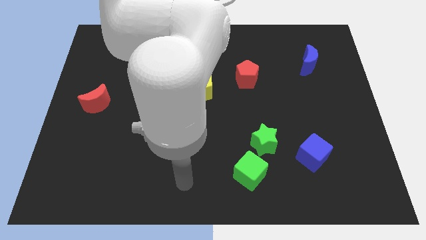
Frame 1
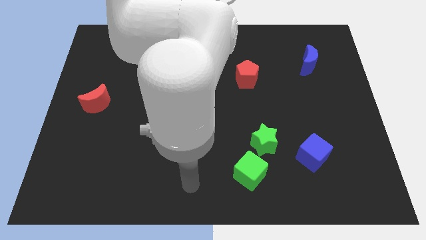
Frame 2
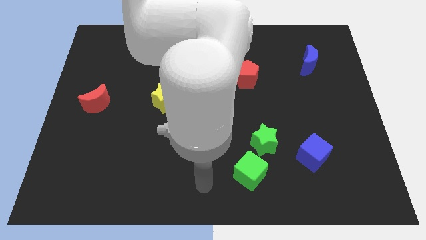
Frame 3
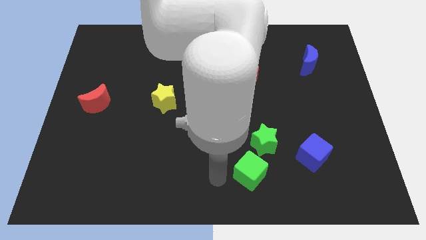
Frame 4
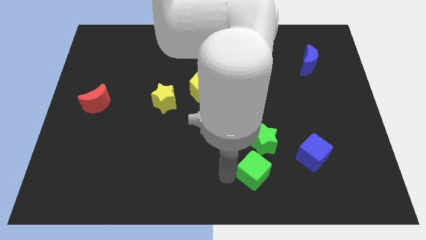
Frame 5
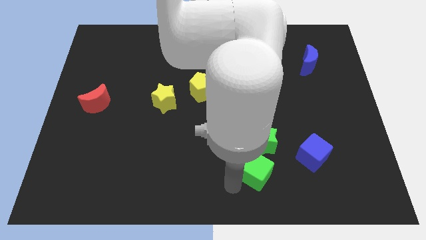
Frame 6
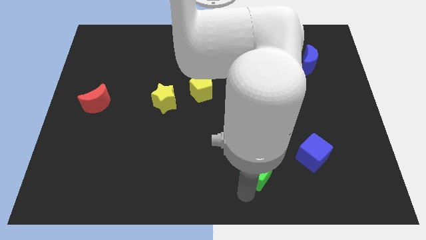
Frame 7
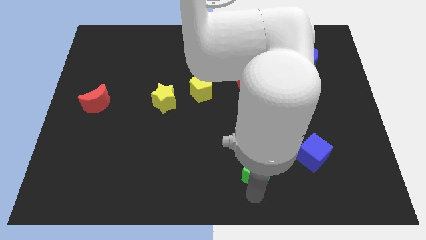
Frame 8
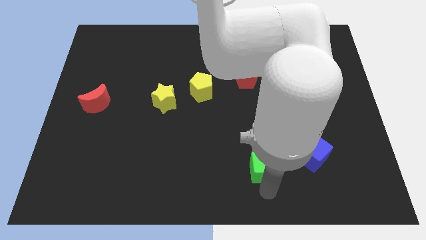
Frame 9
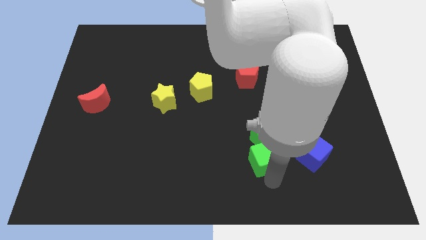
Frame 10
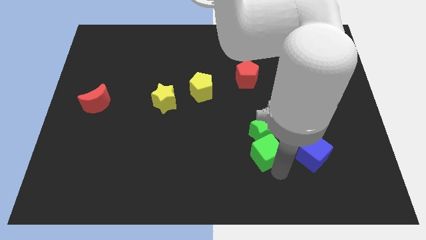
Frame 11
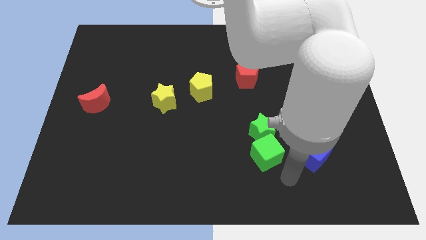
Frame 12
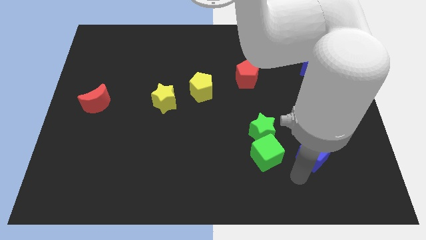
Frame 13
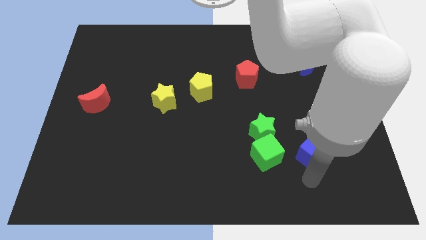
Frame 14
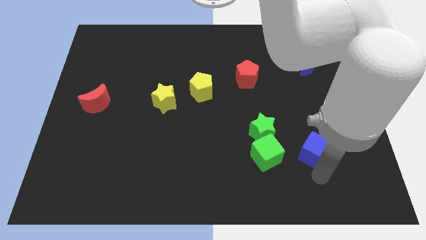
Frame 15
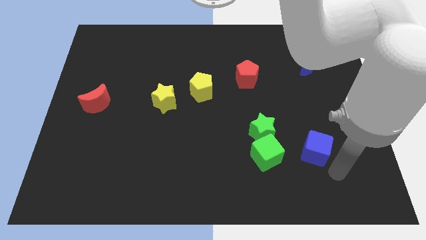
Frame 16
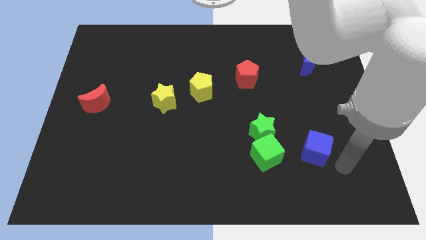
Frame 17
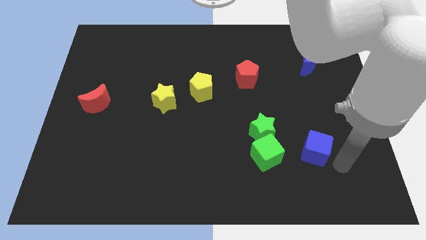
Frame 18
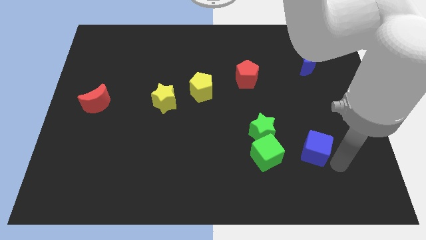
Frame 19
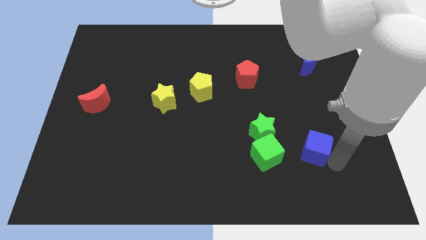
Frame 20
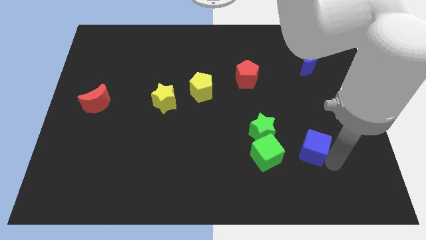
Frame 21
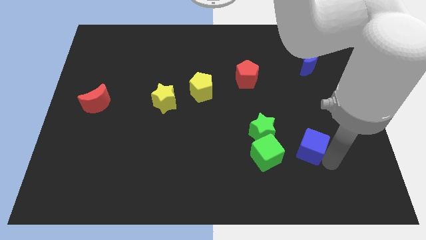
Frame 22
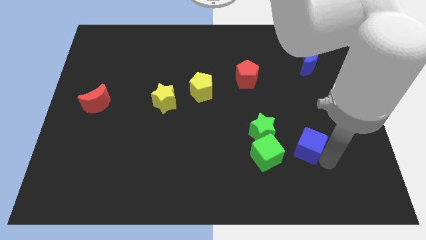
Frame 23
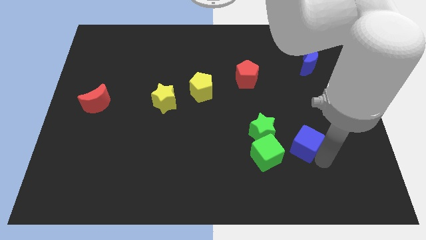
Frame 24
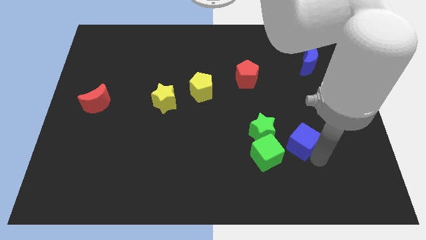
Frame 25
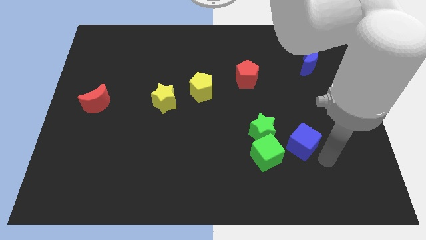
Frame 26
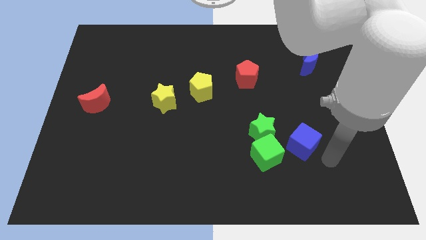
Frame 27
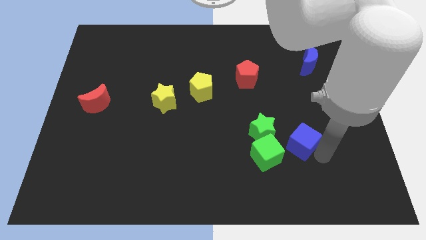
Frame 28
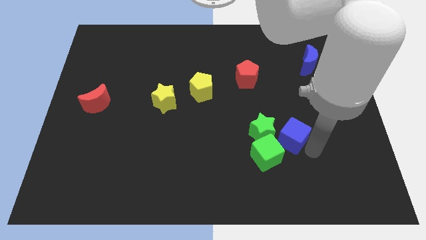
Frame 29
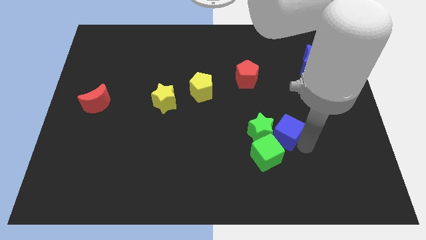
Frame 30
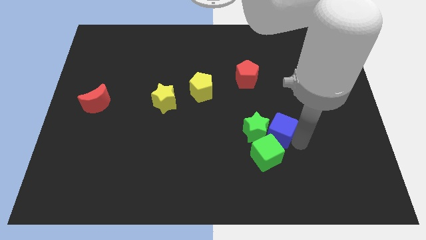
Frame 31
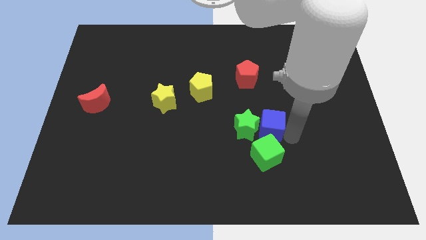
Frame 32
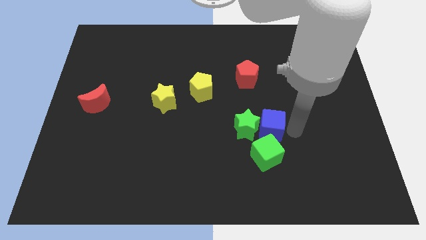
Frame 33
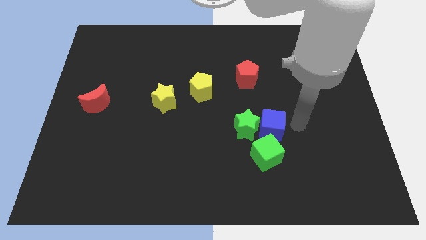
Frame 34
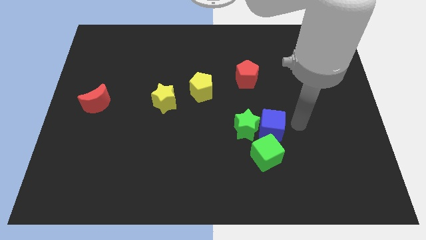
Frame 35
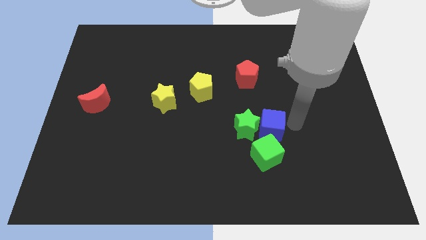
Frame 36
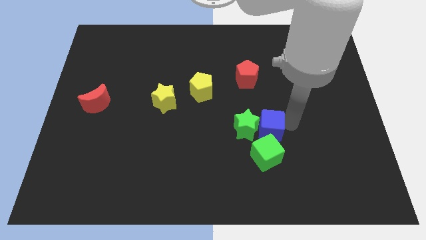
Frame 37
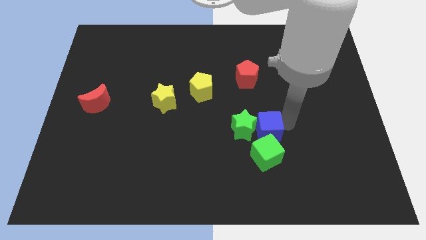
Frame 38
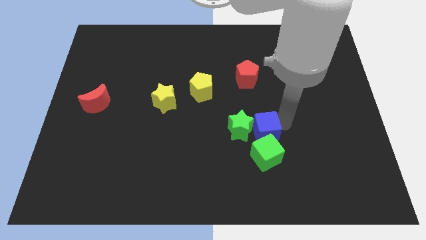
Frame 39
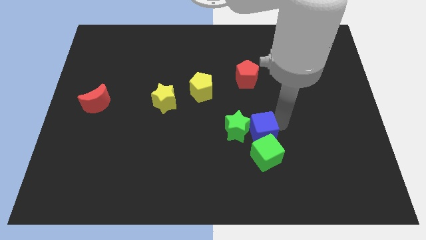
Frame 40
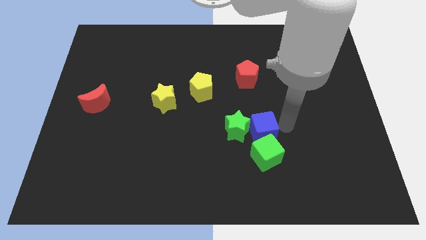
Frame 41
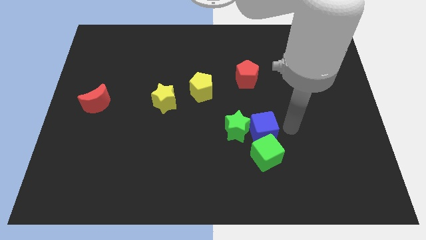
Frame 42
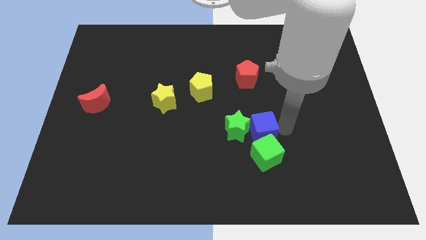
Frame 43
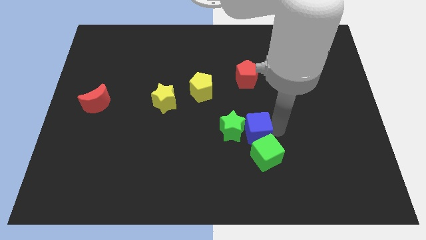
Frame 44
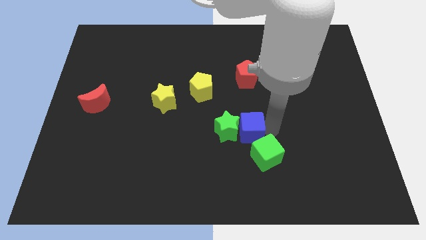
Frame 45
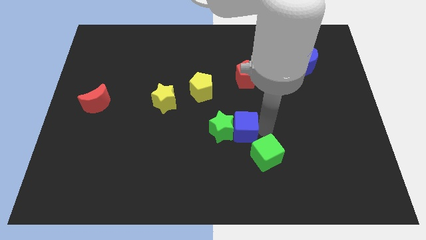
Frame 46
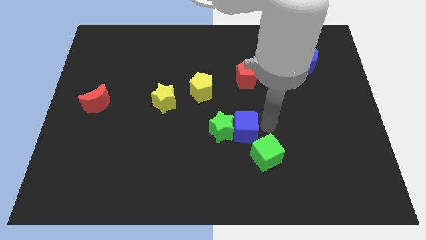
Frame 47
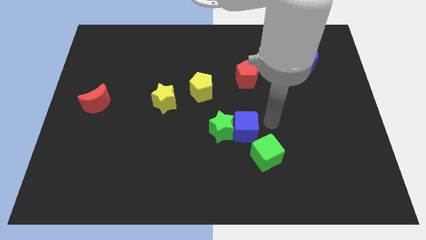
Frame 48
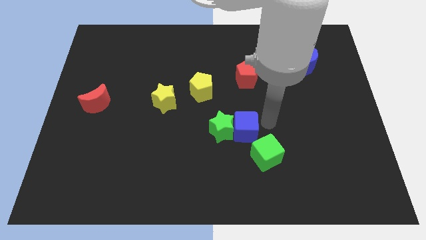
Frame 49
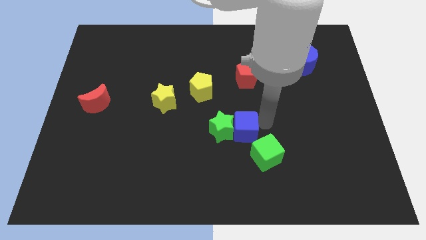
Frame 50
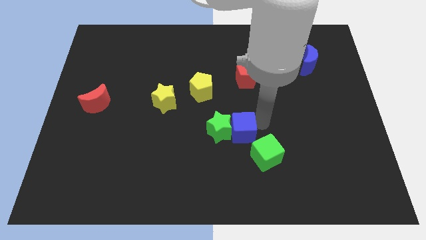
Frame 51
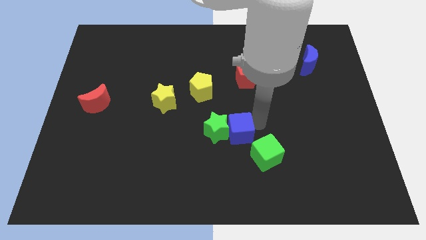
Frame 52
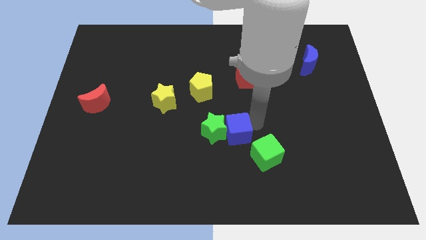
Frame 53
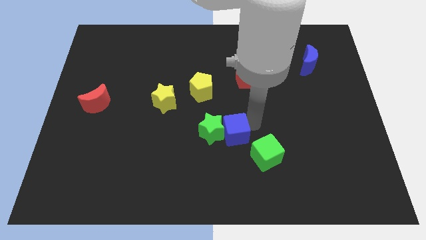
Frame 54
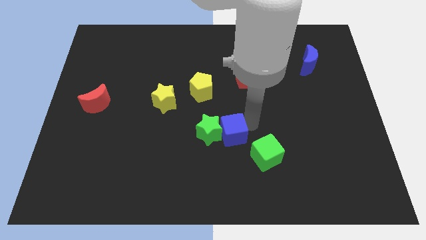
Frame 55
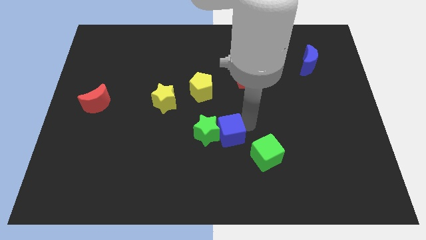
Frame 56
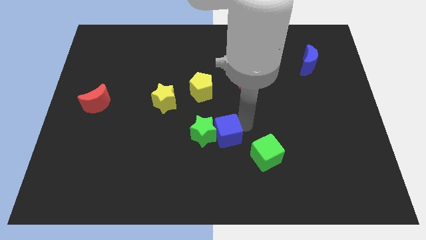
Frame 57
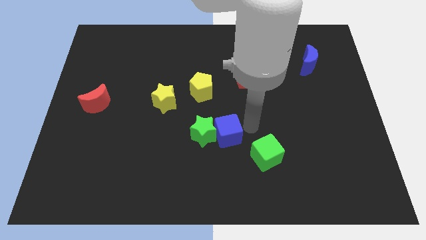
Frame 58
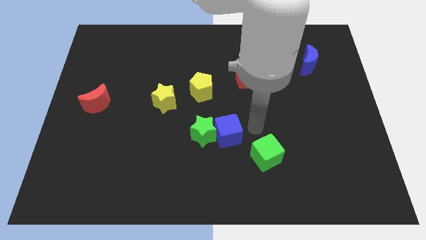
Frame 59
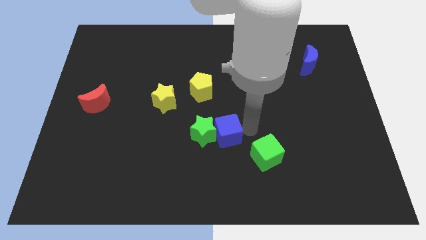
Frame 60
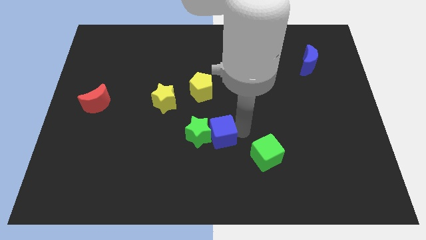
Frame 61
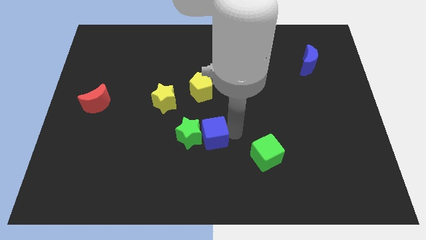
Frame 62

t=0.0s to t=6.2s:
push the blue cube to the left

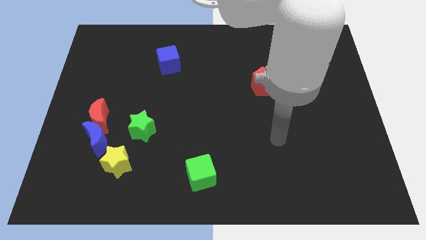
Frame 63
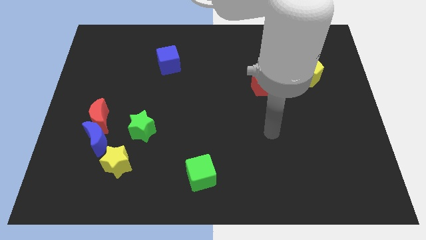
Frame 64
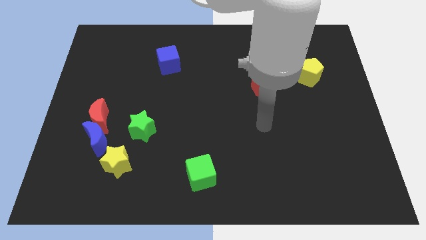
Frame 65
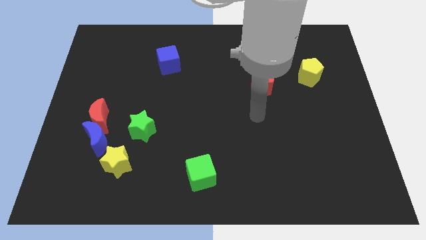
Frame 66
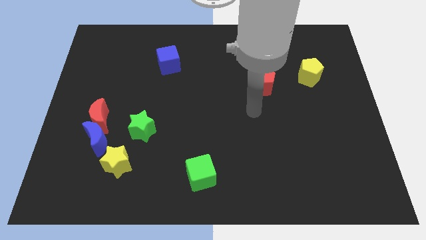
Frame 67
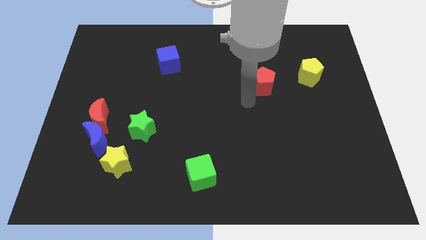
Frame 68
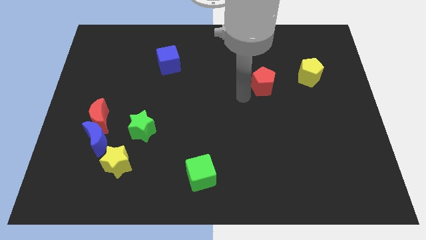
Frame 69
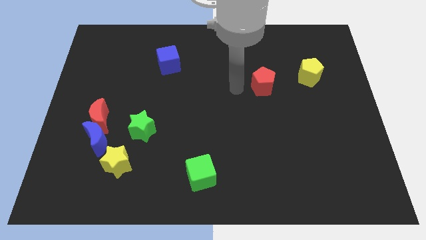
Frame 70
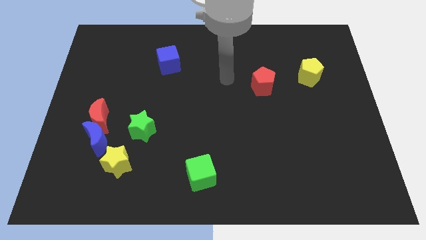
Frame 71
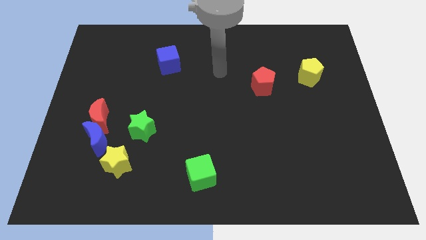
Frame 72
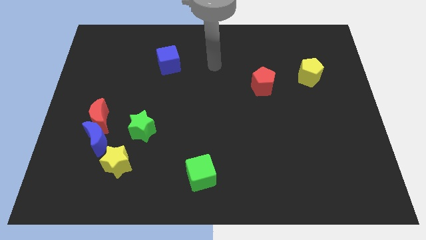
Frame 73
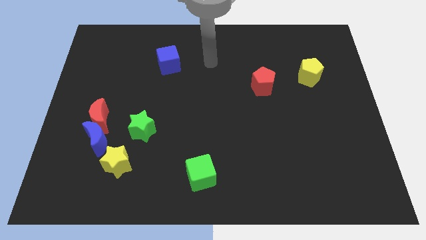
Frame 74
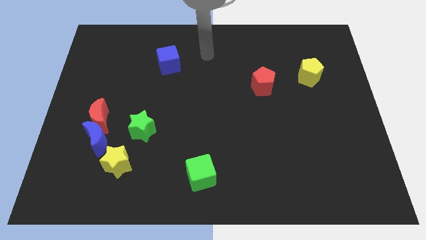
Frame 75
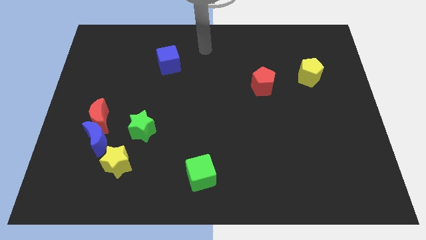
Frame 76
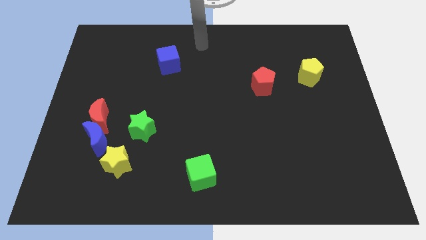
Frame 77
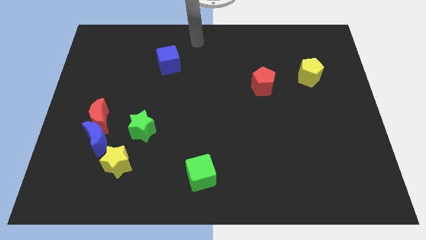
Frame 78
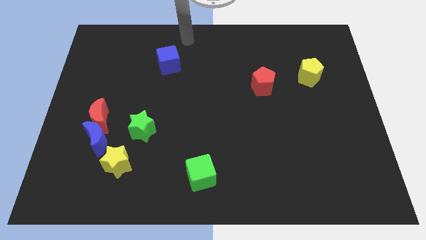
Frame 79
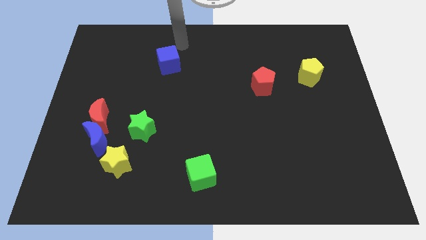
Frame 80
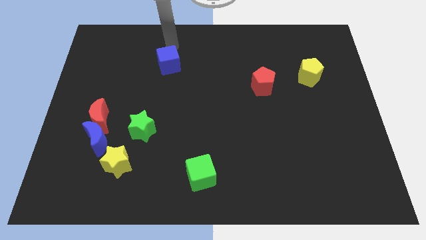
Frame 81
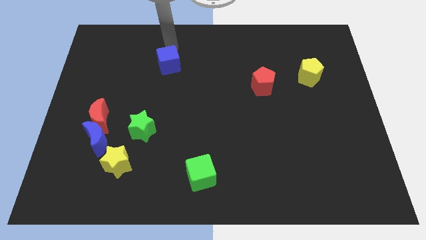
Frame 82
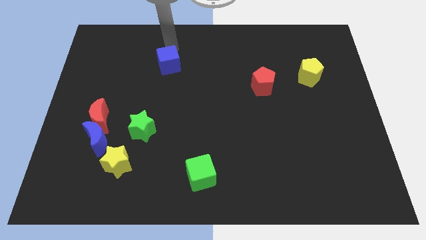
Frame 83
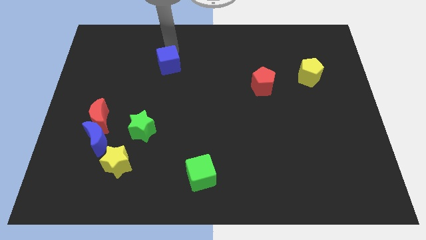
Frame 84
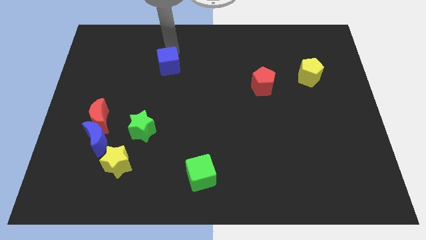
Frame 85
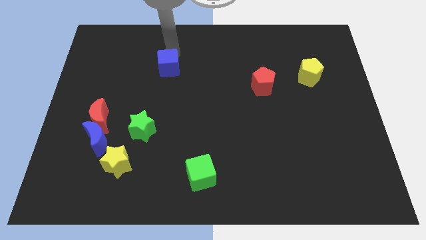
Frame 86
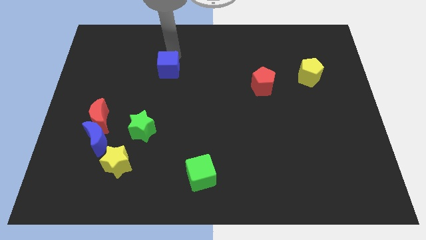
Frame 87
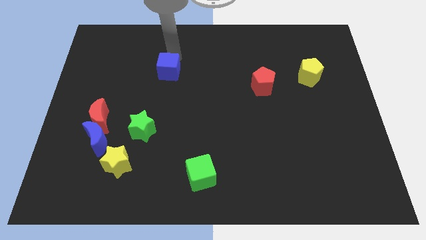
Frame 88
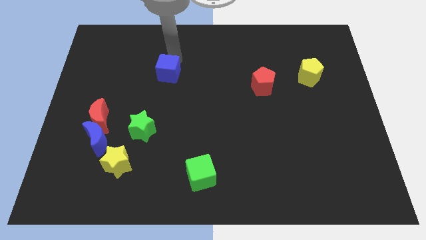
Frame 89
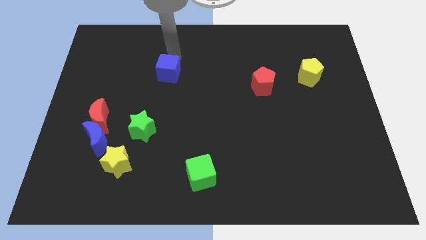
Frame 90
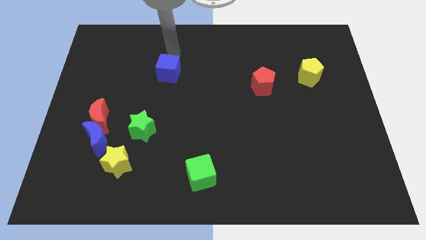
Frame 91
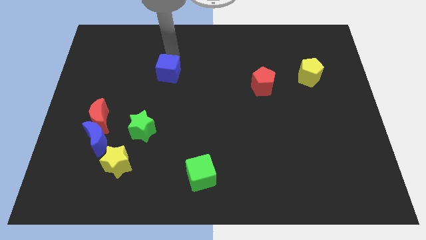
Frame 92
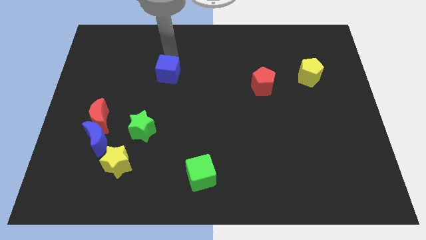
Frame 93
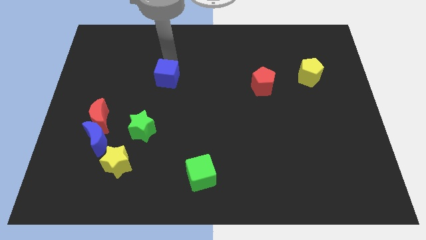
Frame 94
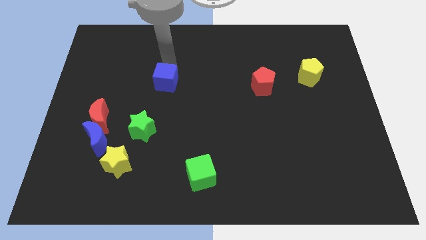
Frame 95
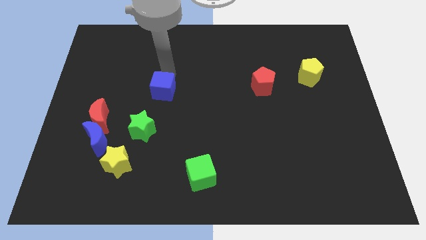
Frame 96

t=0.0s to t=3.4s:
push the blue cube downwards slightly
